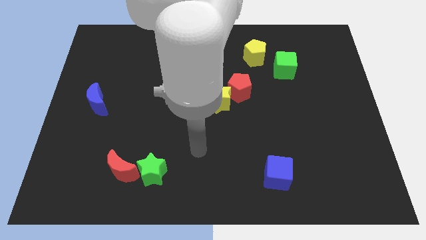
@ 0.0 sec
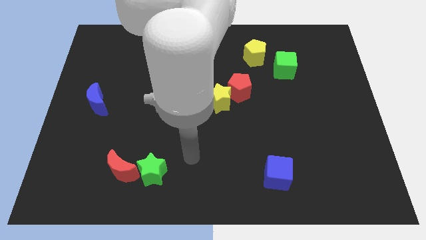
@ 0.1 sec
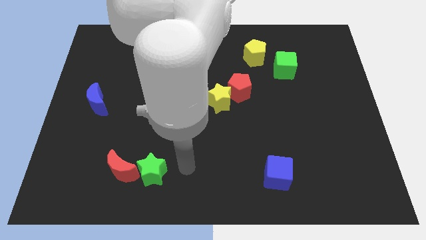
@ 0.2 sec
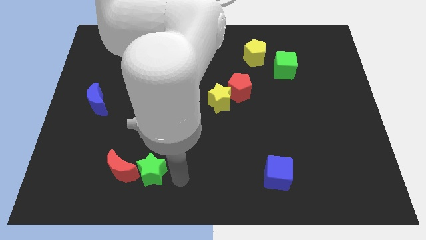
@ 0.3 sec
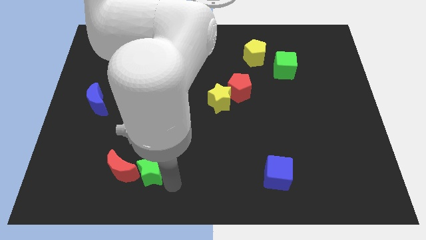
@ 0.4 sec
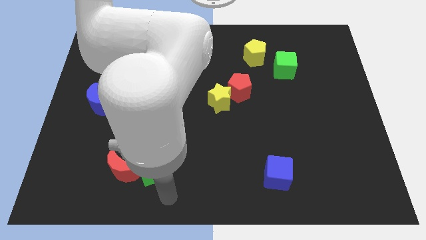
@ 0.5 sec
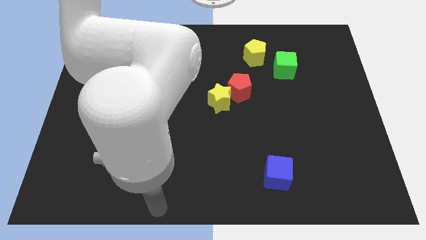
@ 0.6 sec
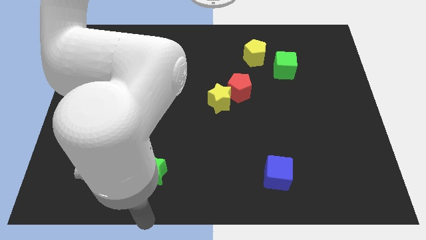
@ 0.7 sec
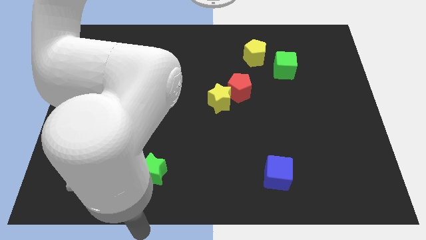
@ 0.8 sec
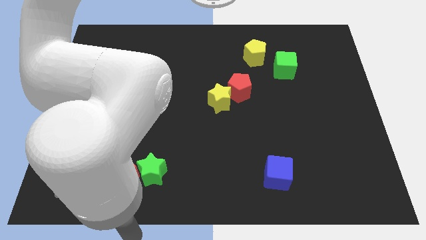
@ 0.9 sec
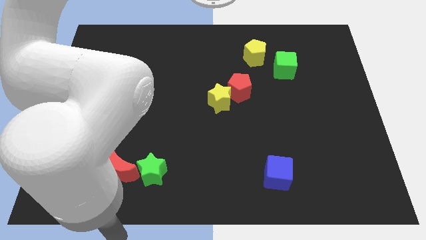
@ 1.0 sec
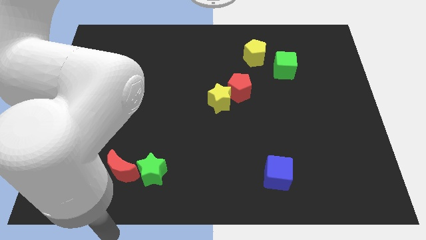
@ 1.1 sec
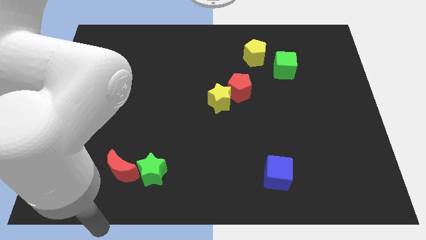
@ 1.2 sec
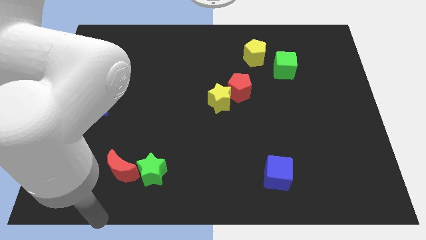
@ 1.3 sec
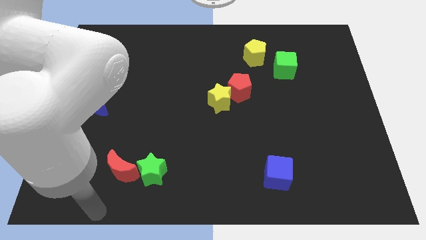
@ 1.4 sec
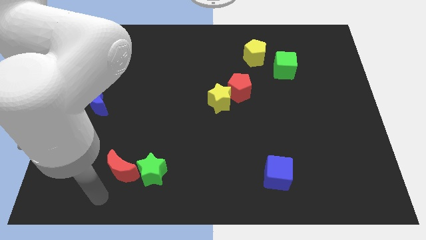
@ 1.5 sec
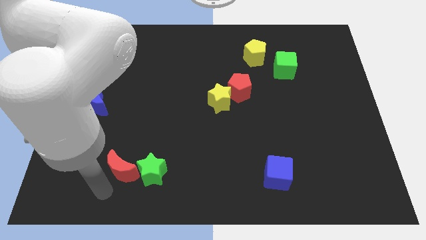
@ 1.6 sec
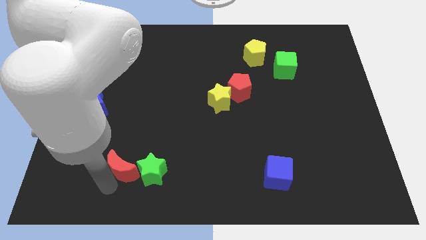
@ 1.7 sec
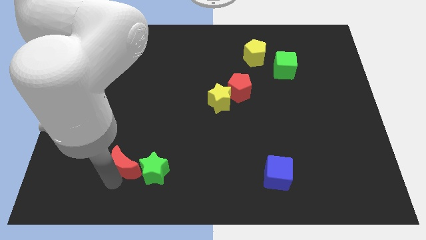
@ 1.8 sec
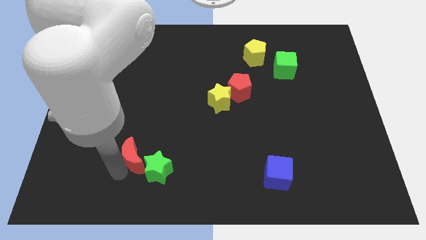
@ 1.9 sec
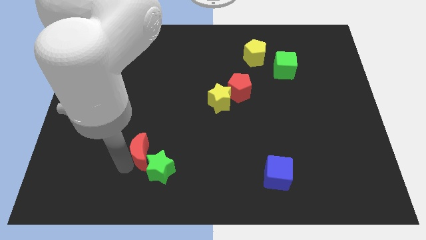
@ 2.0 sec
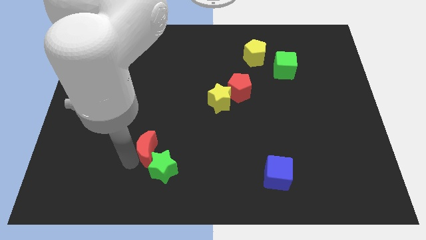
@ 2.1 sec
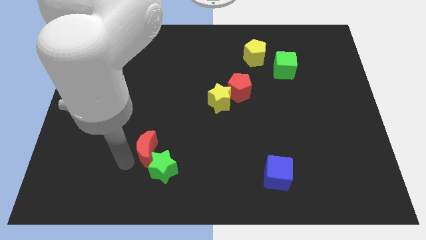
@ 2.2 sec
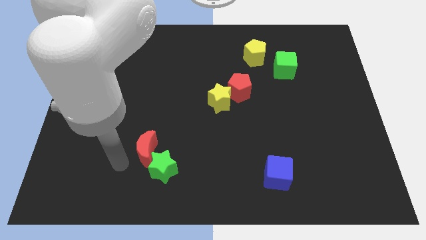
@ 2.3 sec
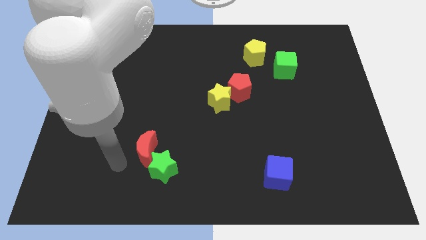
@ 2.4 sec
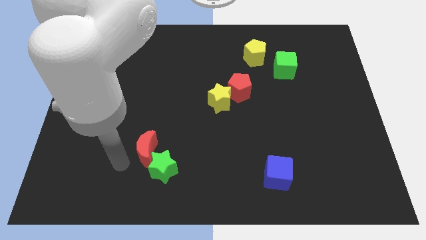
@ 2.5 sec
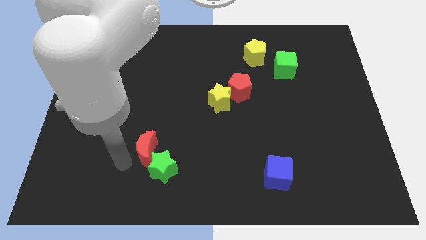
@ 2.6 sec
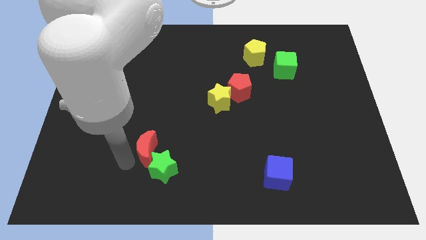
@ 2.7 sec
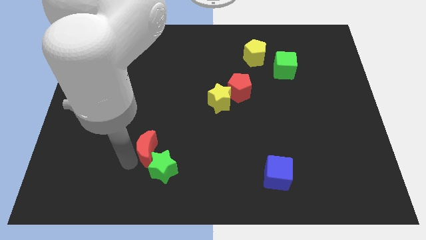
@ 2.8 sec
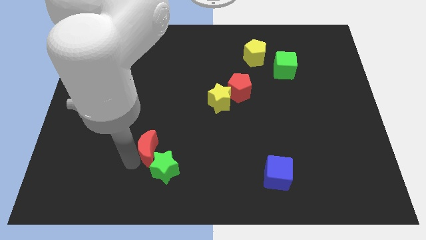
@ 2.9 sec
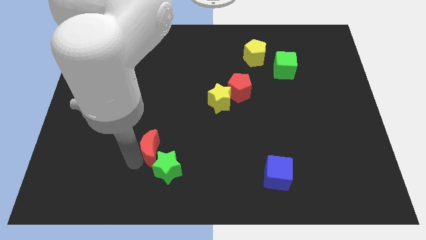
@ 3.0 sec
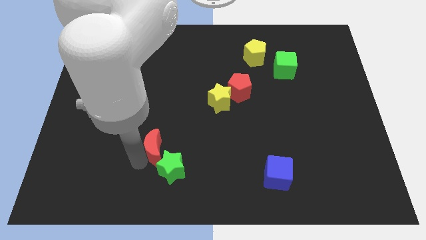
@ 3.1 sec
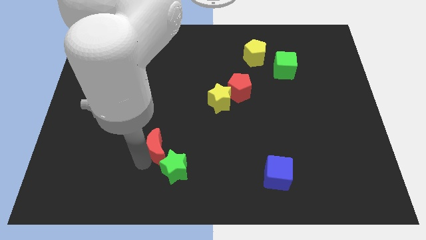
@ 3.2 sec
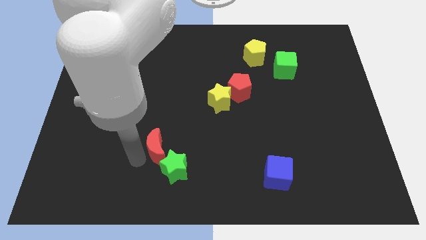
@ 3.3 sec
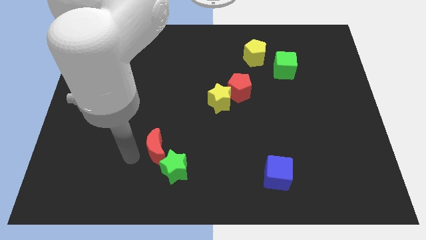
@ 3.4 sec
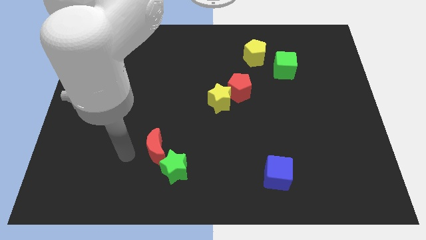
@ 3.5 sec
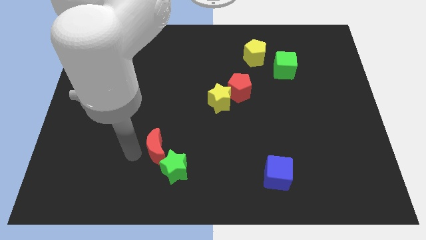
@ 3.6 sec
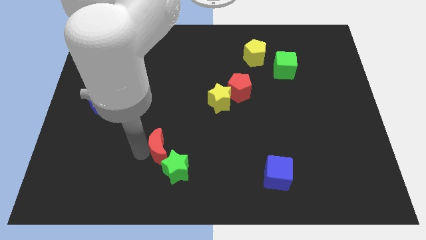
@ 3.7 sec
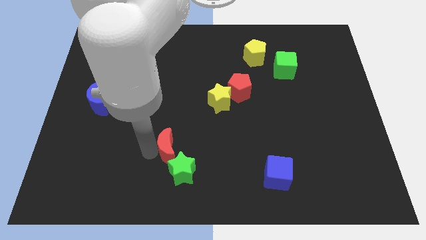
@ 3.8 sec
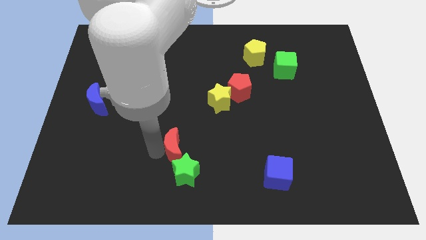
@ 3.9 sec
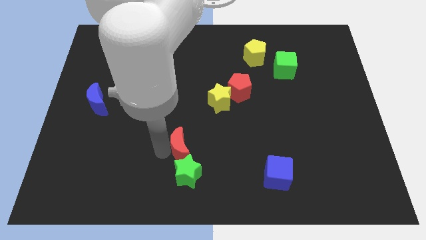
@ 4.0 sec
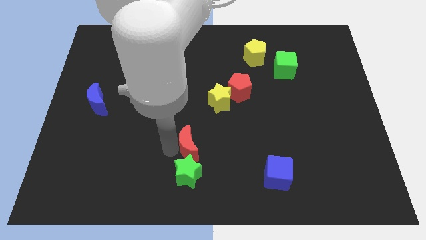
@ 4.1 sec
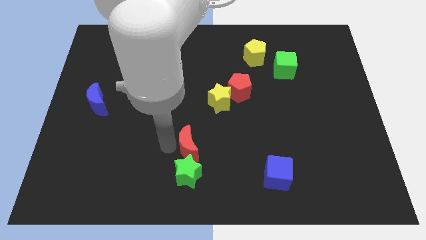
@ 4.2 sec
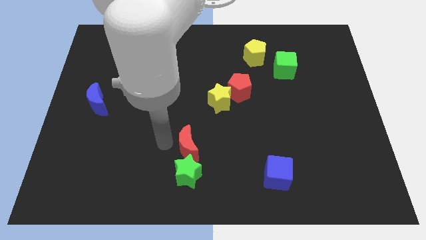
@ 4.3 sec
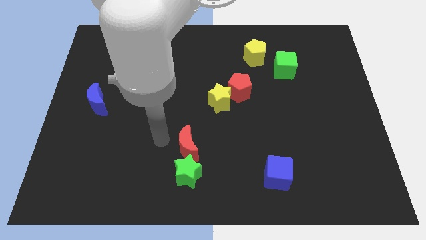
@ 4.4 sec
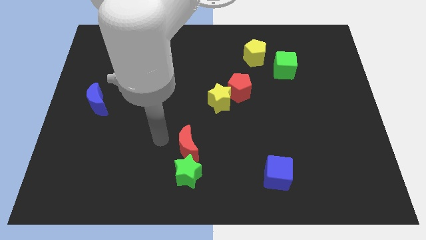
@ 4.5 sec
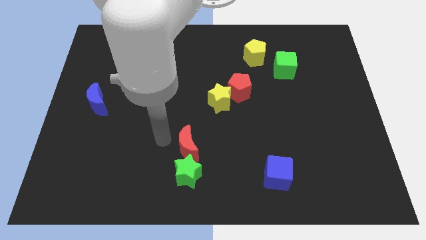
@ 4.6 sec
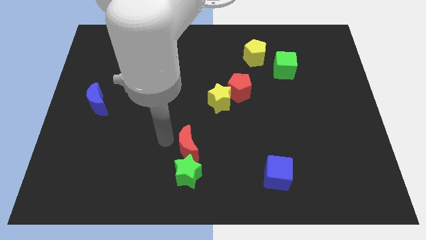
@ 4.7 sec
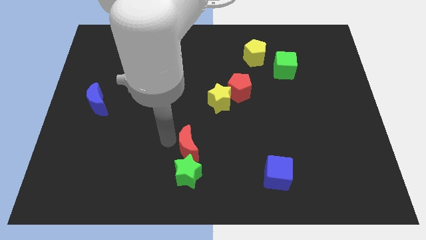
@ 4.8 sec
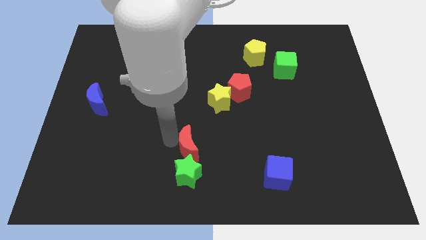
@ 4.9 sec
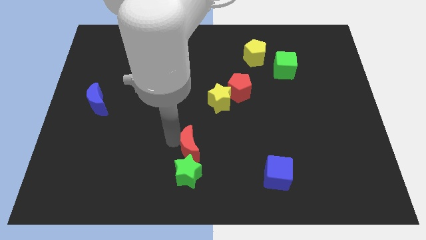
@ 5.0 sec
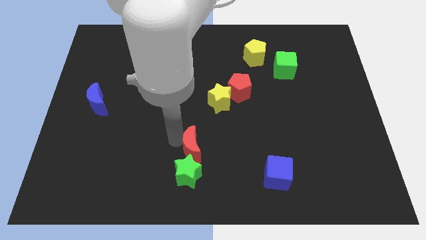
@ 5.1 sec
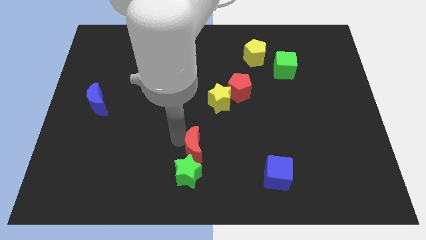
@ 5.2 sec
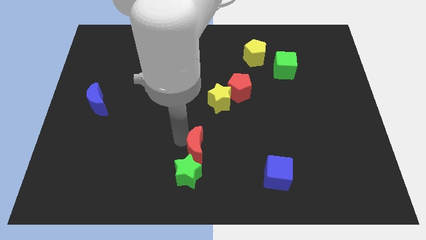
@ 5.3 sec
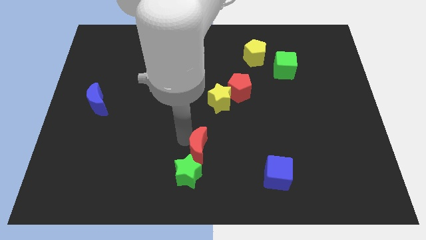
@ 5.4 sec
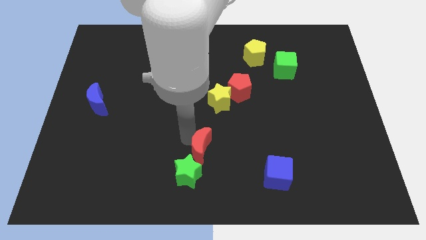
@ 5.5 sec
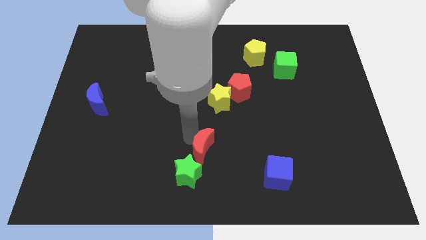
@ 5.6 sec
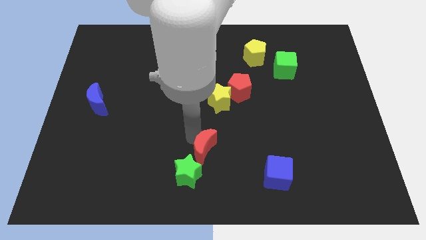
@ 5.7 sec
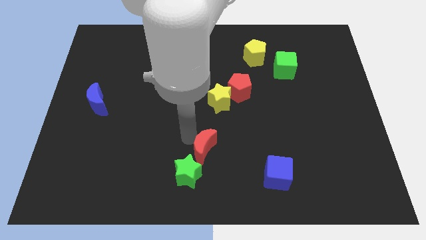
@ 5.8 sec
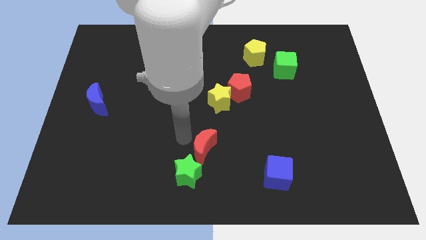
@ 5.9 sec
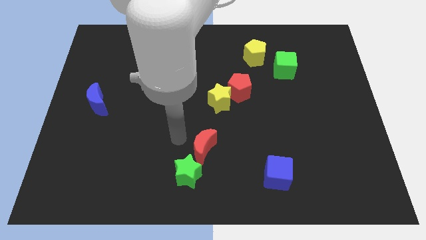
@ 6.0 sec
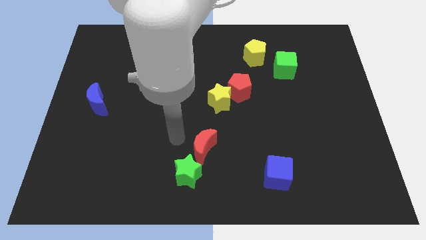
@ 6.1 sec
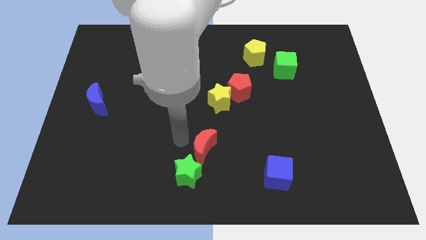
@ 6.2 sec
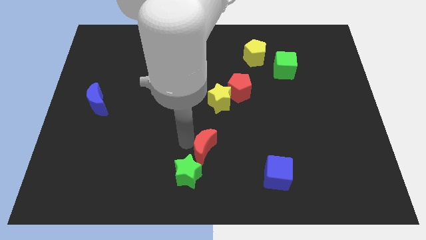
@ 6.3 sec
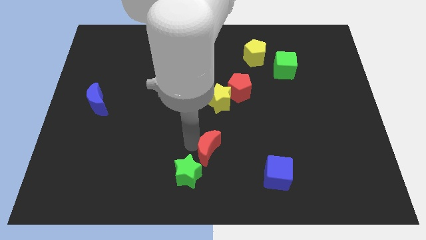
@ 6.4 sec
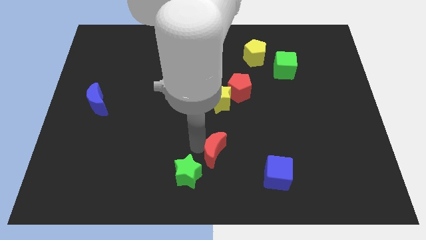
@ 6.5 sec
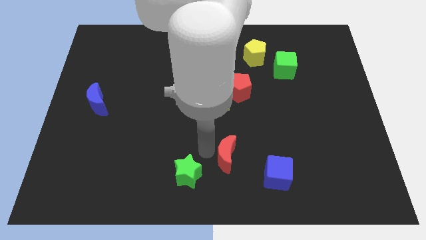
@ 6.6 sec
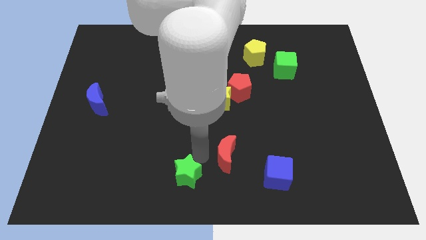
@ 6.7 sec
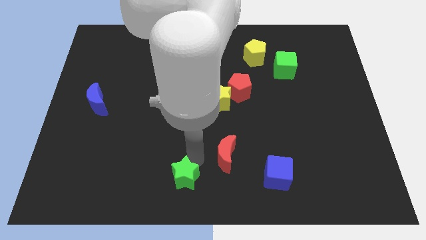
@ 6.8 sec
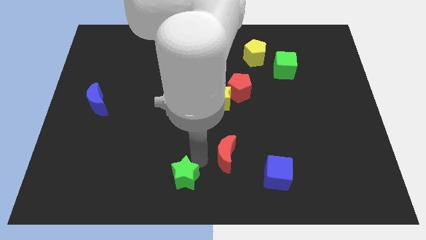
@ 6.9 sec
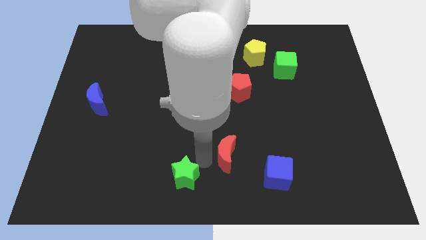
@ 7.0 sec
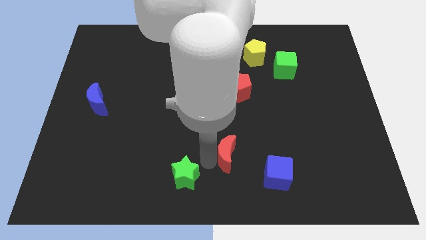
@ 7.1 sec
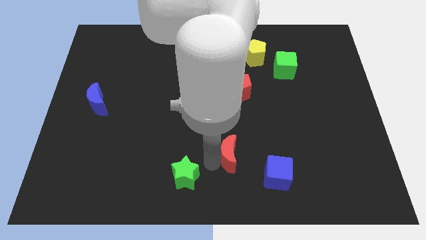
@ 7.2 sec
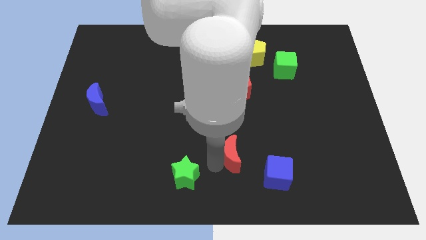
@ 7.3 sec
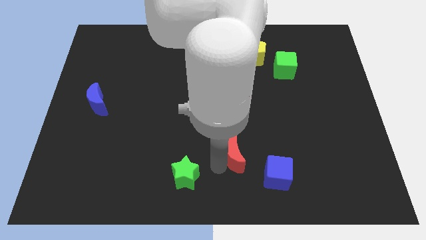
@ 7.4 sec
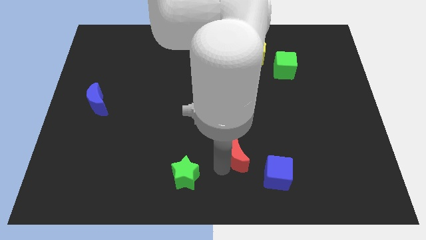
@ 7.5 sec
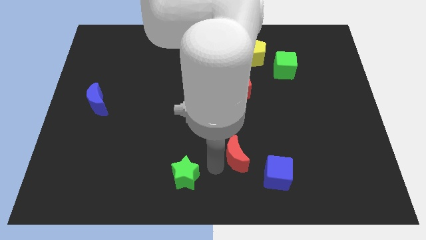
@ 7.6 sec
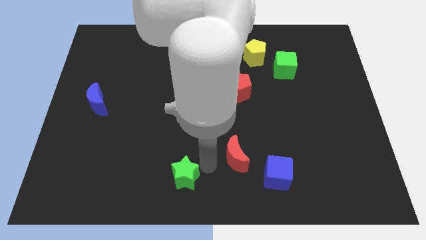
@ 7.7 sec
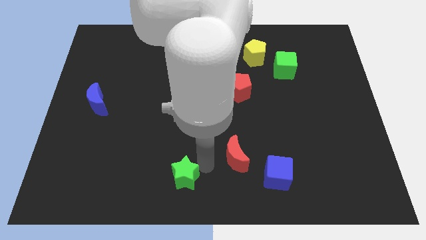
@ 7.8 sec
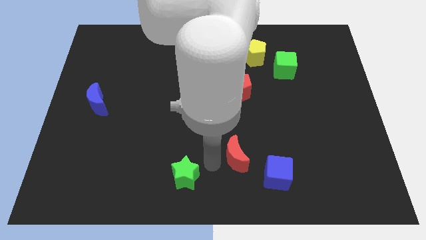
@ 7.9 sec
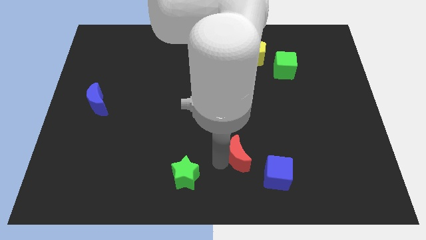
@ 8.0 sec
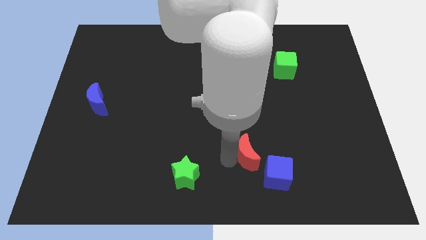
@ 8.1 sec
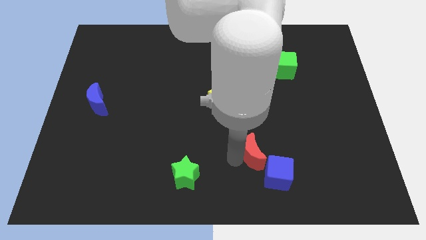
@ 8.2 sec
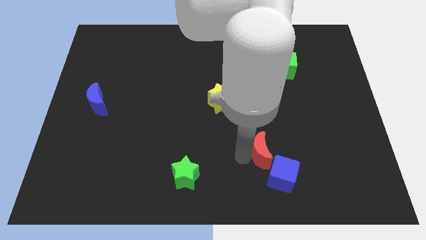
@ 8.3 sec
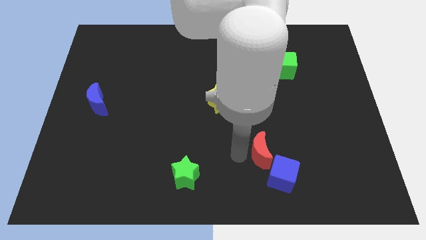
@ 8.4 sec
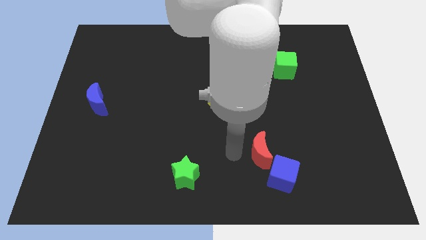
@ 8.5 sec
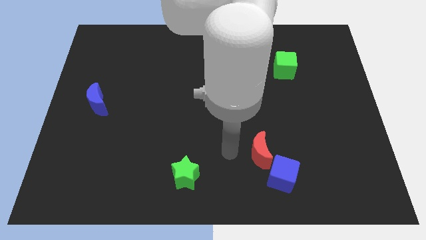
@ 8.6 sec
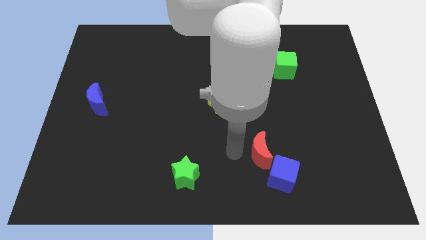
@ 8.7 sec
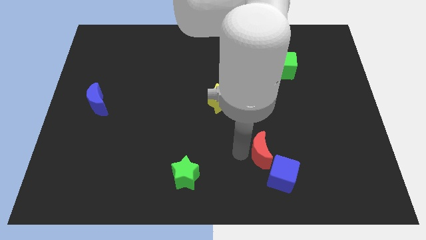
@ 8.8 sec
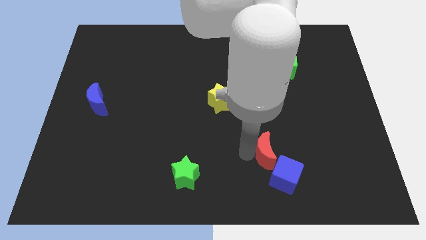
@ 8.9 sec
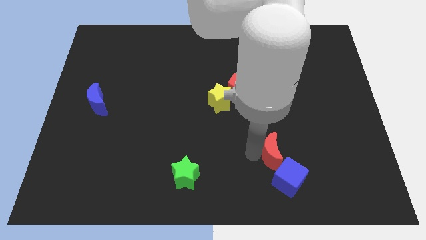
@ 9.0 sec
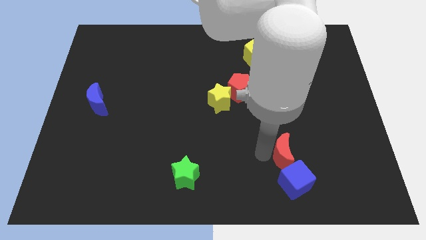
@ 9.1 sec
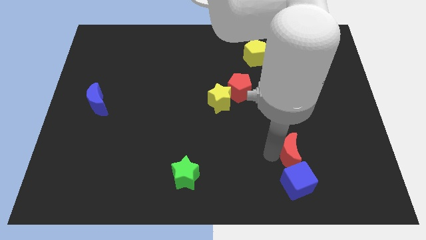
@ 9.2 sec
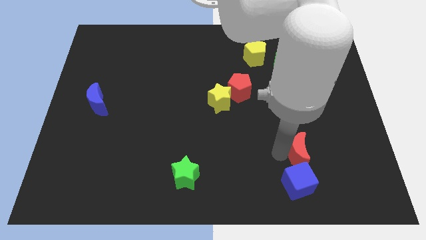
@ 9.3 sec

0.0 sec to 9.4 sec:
move the red moon diagonally up and to the right of the blue cube
